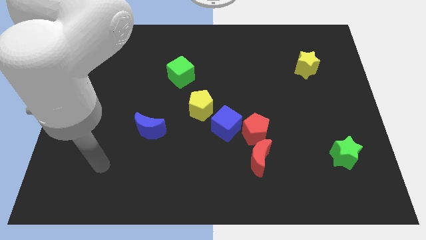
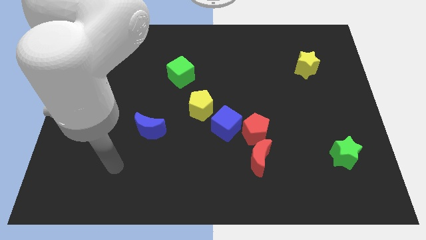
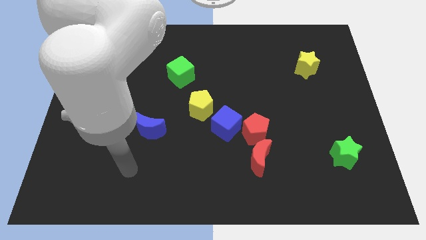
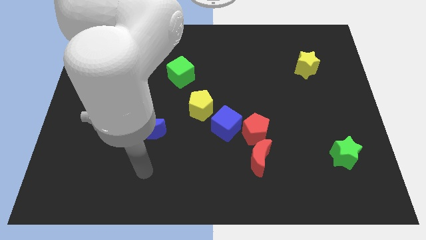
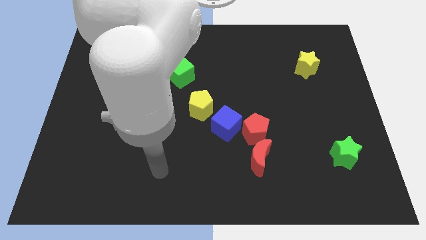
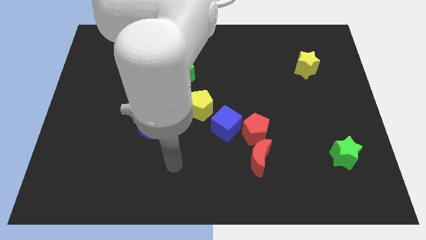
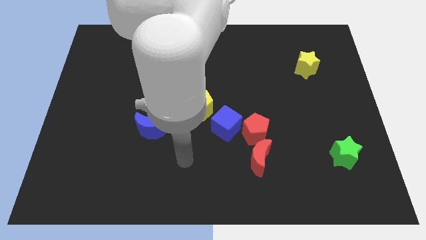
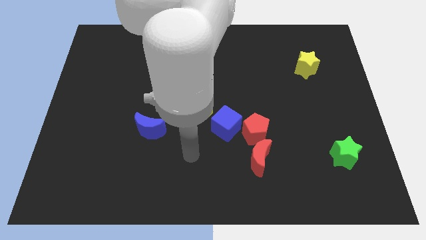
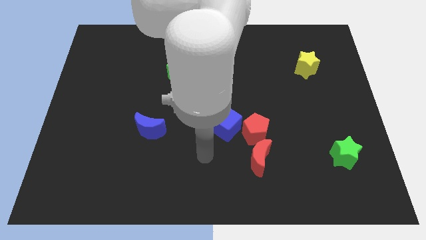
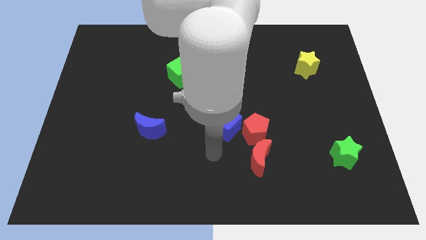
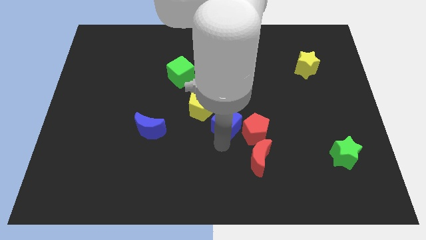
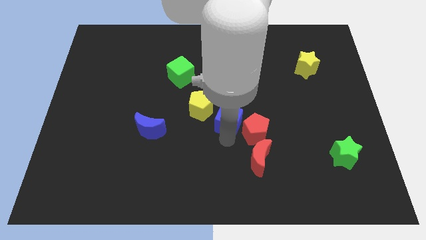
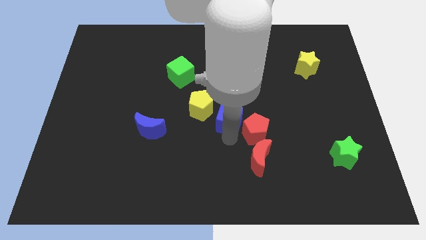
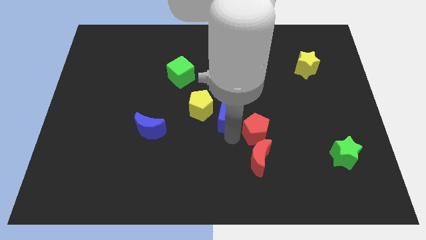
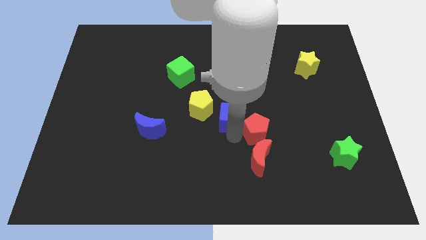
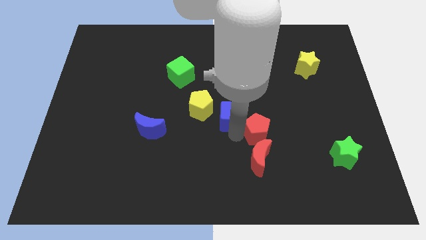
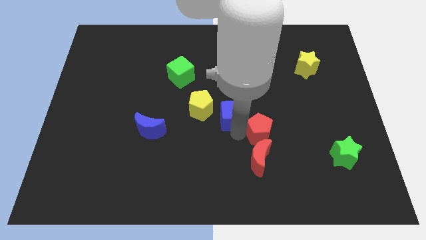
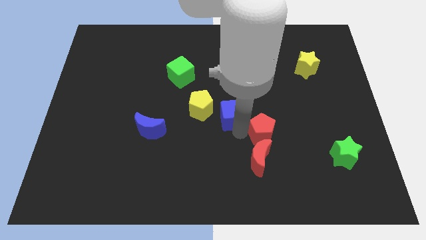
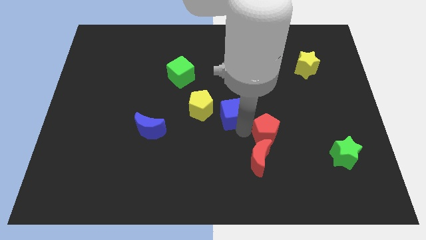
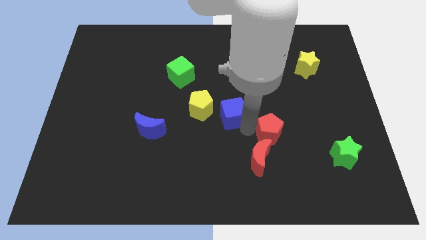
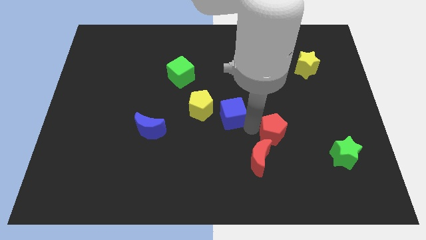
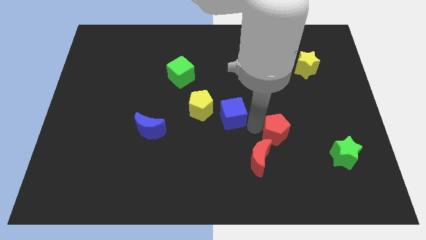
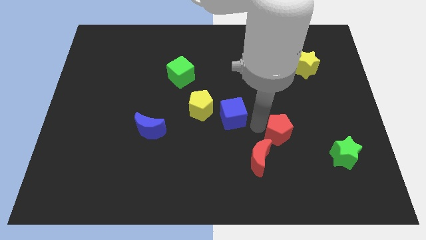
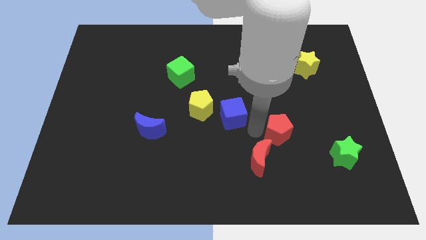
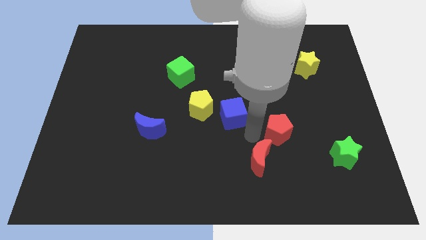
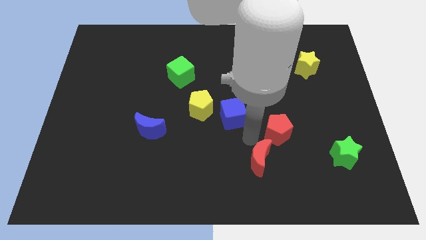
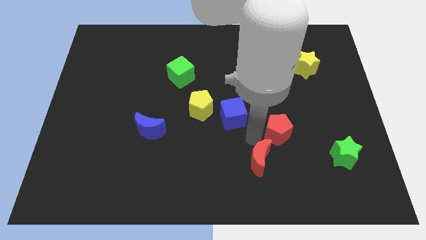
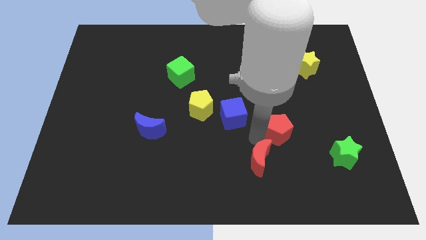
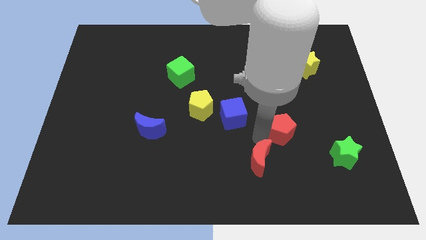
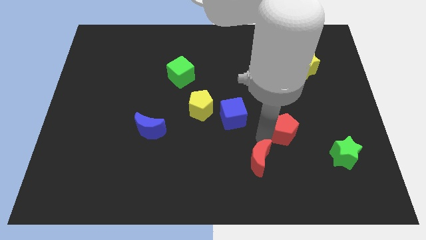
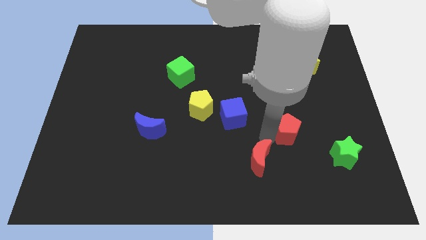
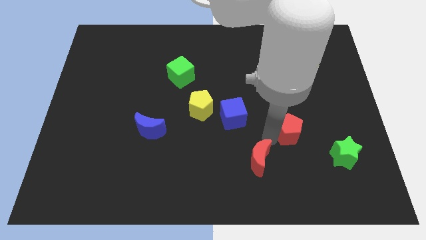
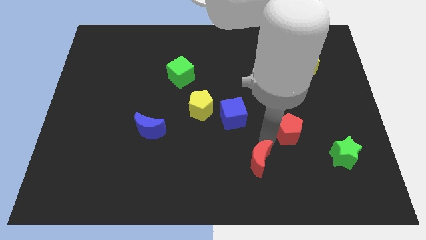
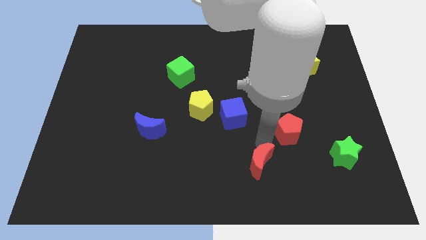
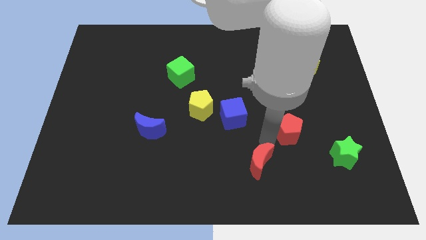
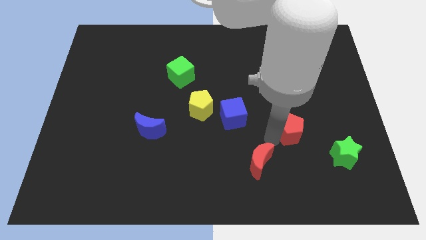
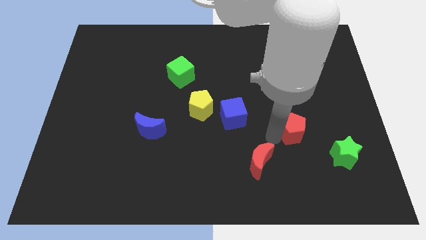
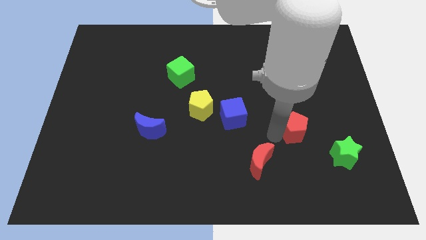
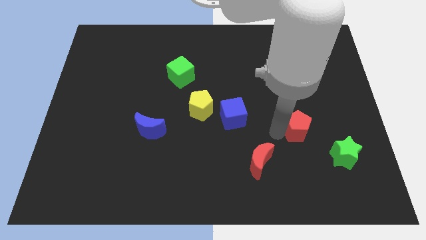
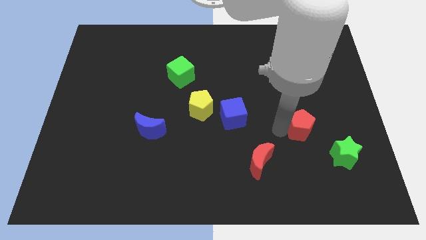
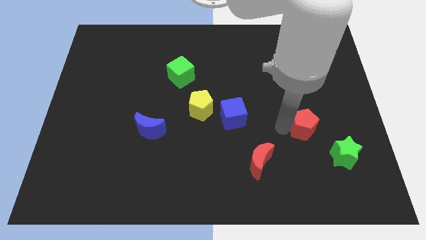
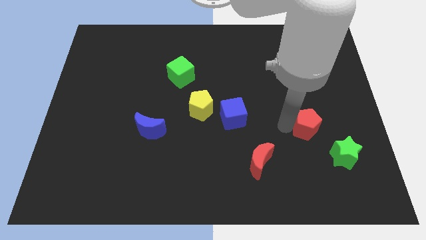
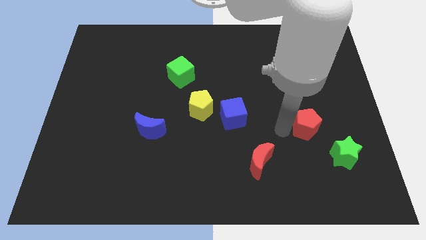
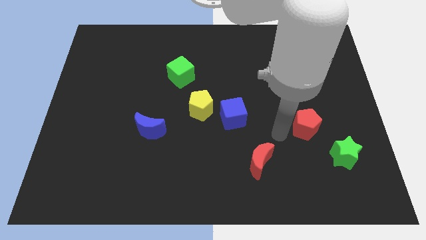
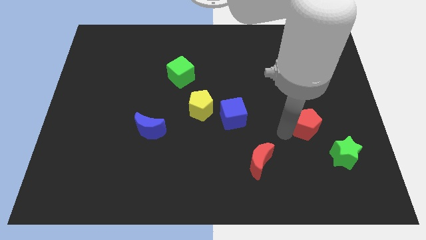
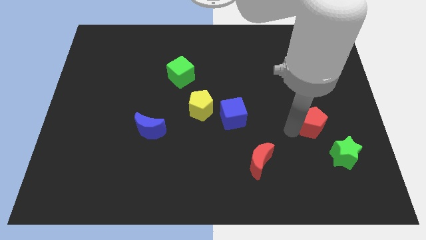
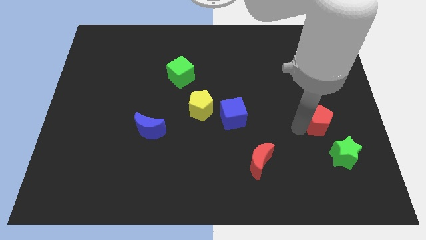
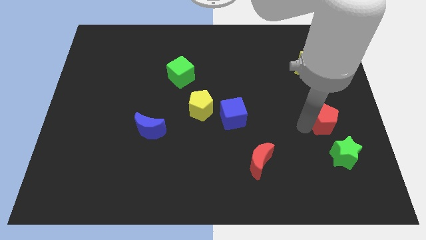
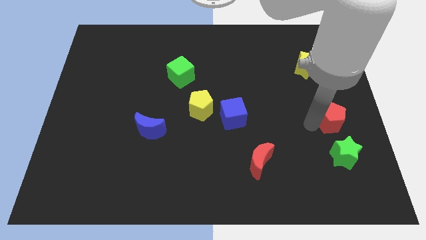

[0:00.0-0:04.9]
push the red pentagon to the right side of the board
